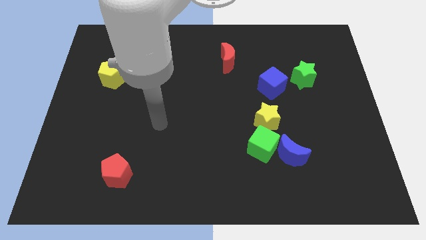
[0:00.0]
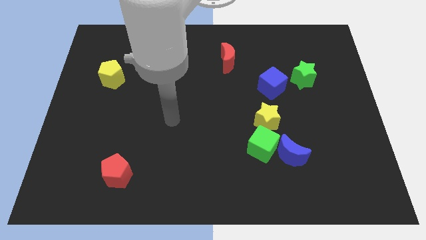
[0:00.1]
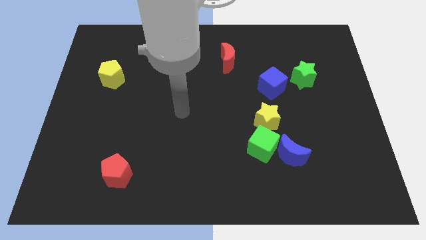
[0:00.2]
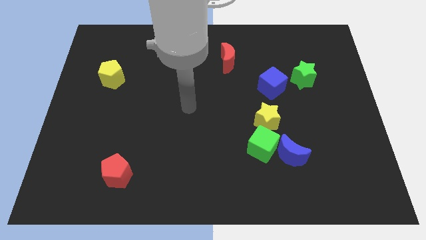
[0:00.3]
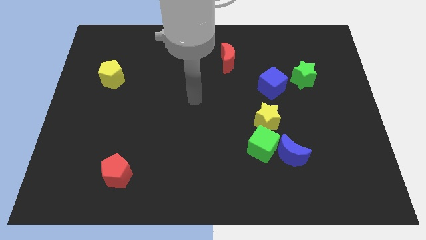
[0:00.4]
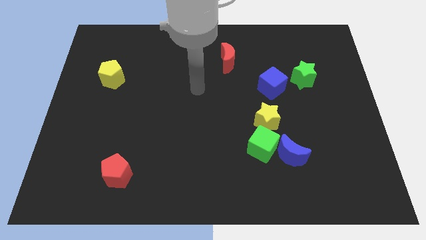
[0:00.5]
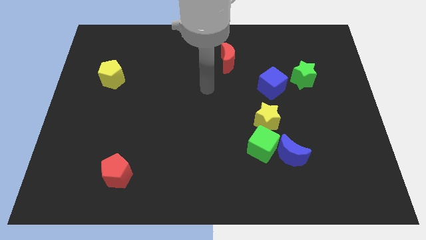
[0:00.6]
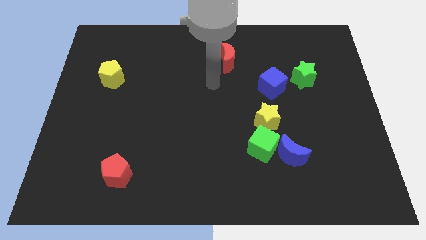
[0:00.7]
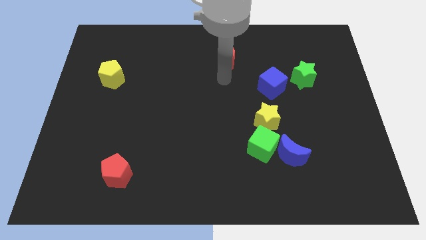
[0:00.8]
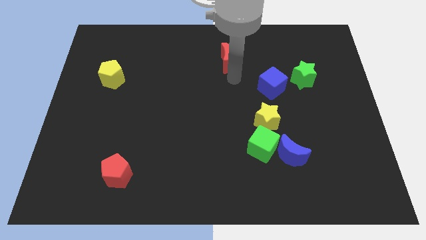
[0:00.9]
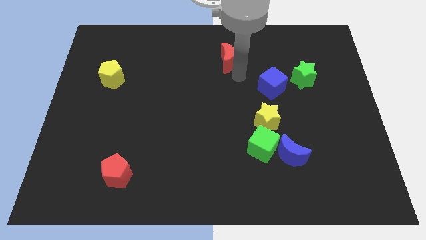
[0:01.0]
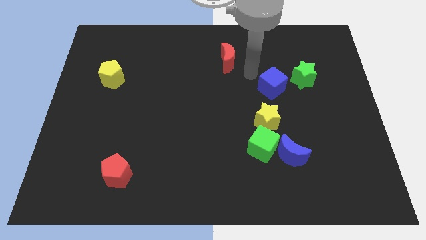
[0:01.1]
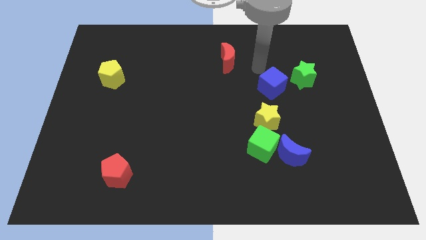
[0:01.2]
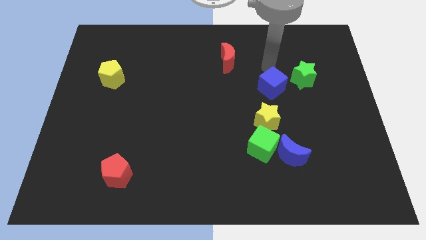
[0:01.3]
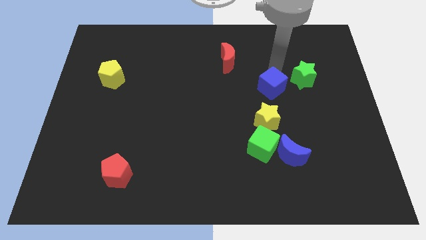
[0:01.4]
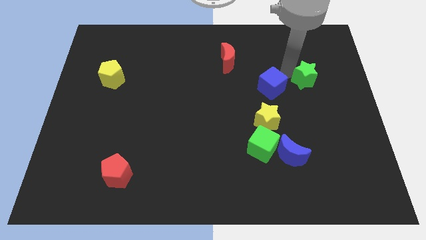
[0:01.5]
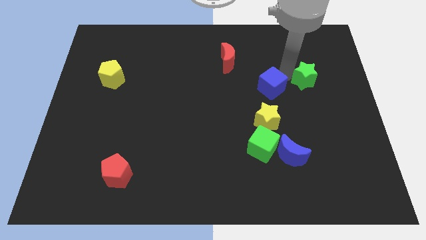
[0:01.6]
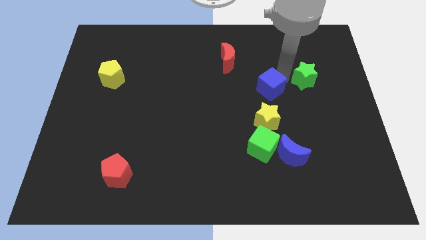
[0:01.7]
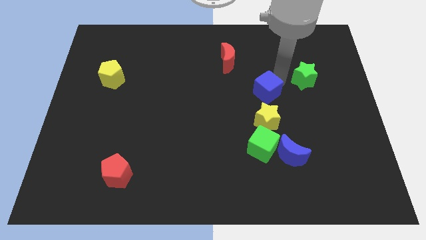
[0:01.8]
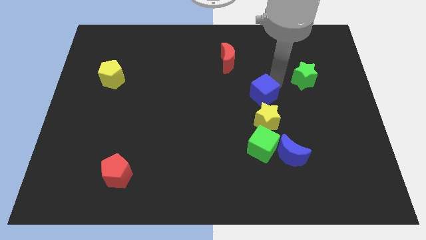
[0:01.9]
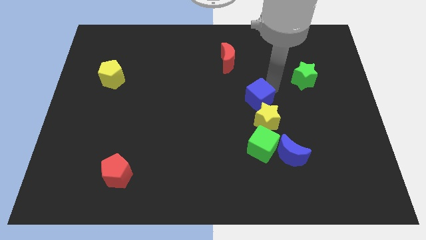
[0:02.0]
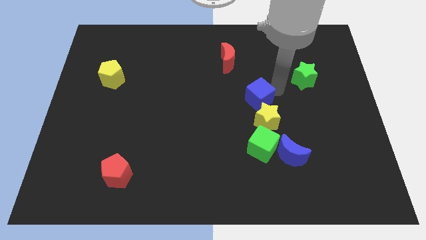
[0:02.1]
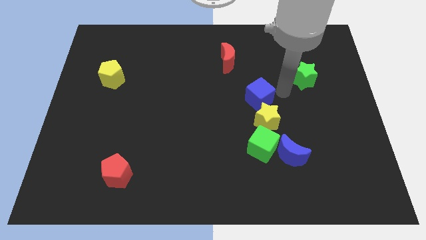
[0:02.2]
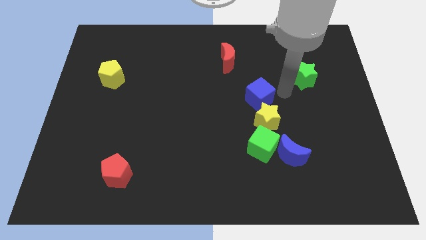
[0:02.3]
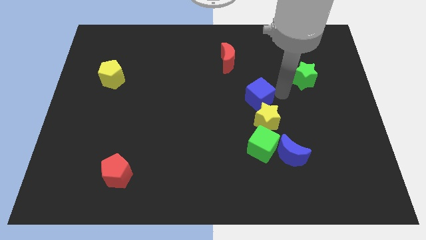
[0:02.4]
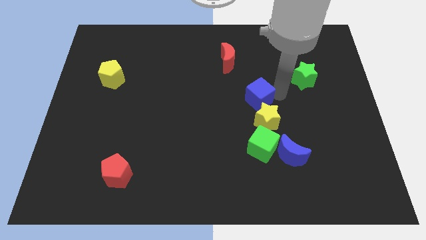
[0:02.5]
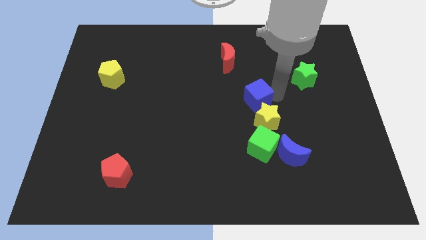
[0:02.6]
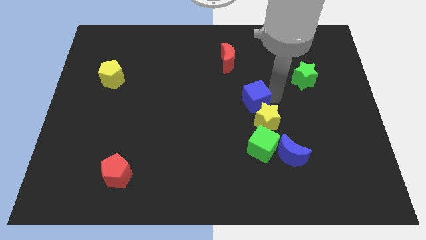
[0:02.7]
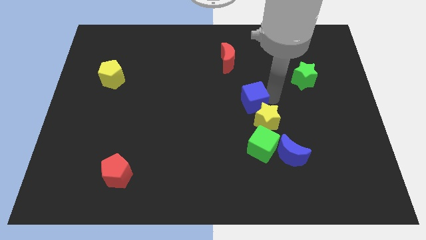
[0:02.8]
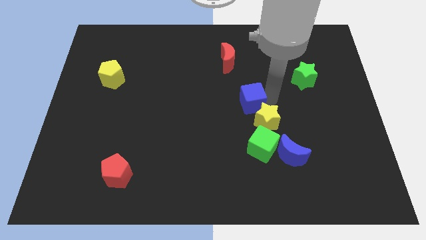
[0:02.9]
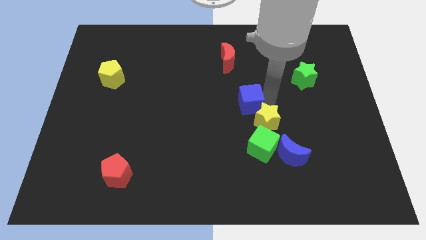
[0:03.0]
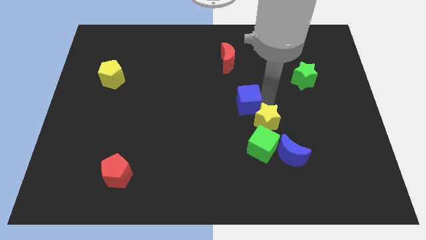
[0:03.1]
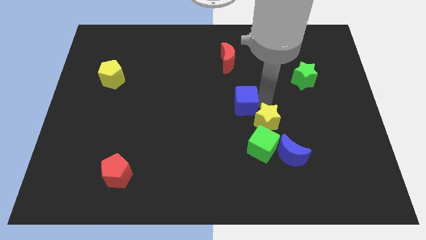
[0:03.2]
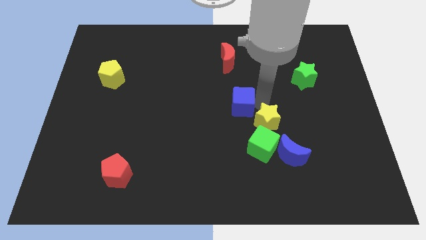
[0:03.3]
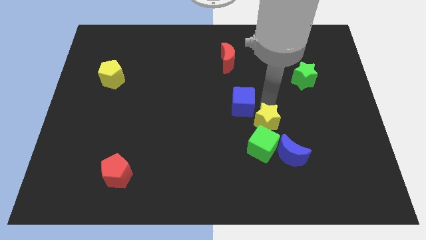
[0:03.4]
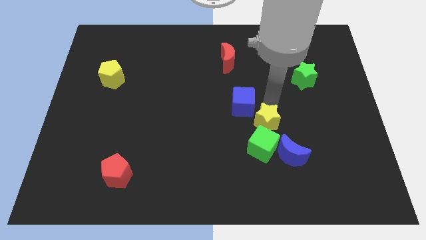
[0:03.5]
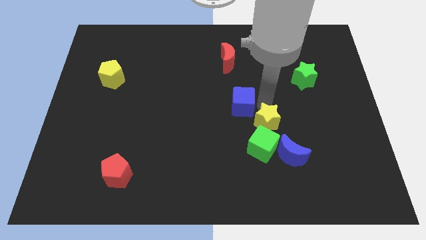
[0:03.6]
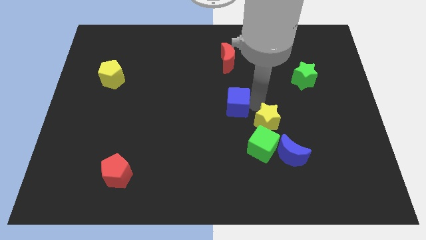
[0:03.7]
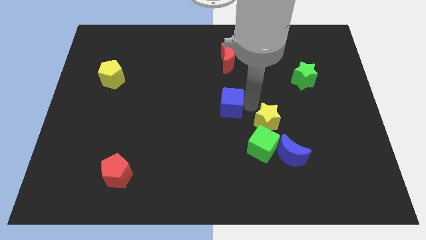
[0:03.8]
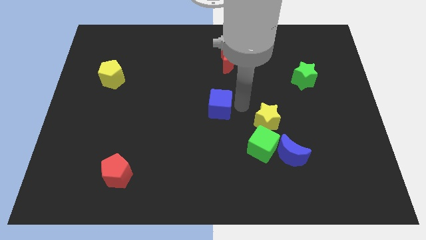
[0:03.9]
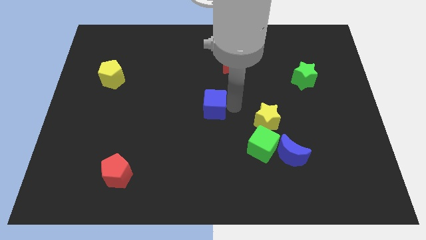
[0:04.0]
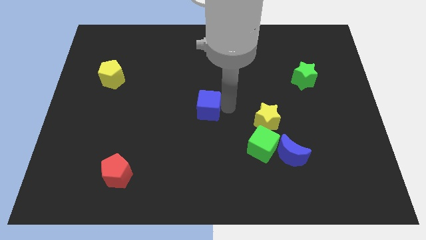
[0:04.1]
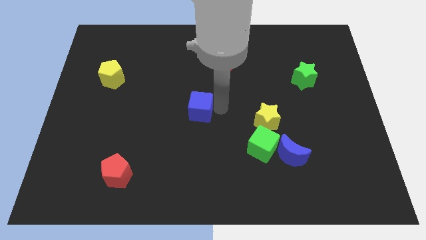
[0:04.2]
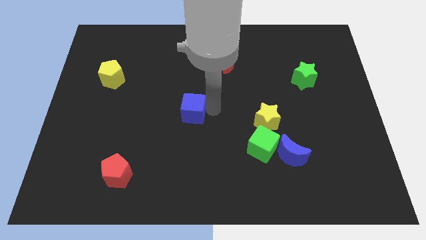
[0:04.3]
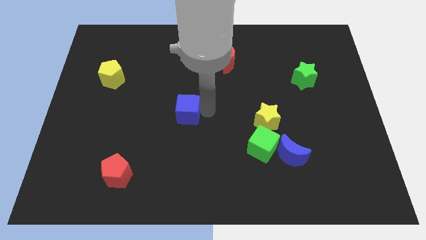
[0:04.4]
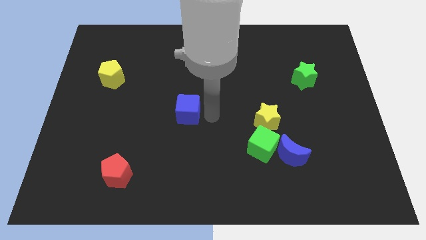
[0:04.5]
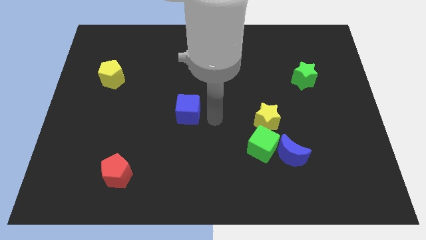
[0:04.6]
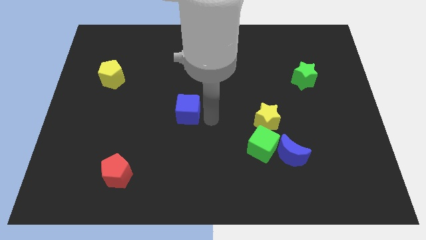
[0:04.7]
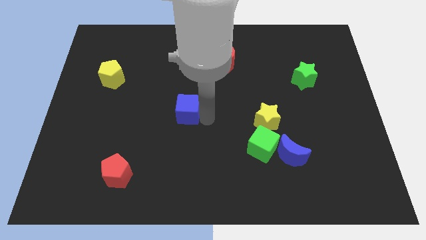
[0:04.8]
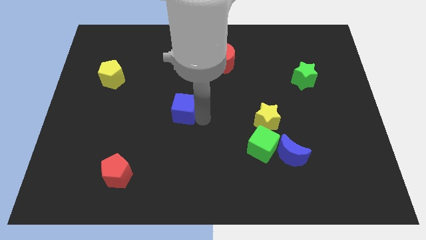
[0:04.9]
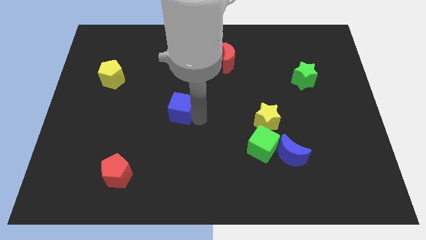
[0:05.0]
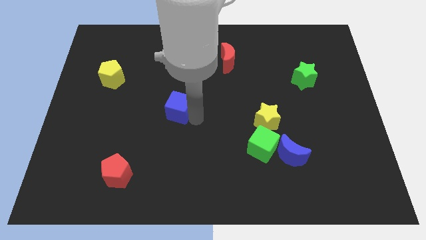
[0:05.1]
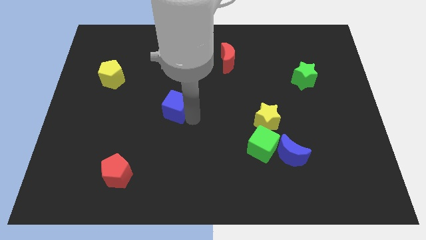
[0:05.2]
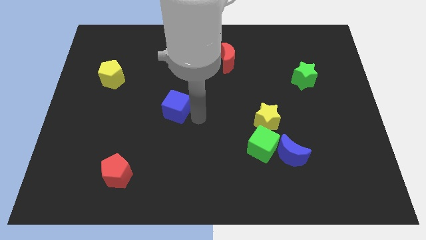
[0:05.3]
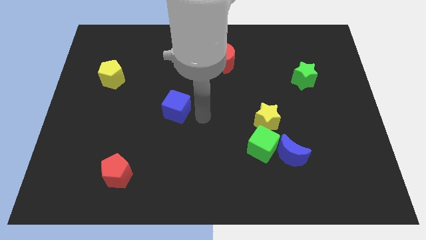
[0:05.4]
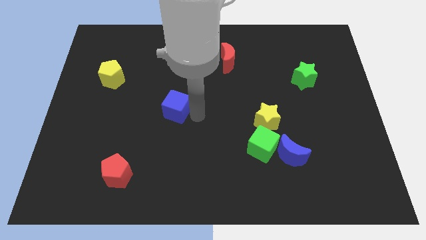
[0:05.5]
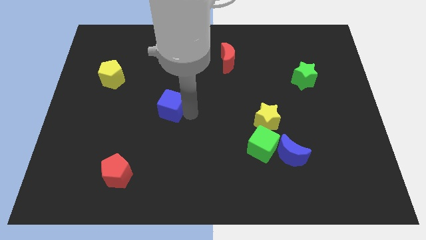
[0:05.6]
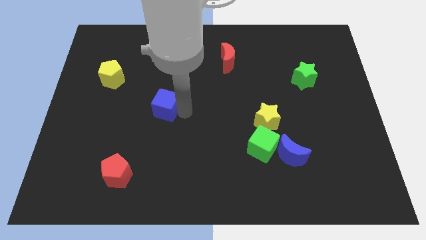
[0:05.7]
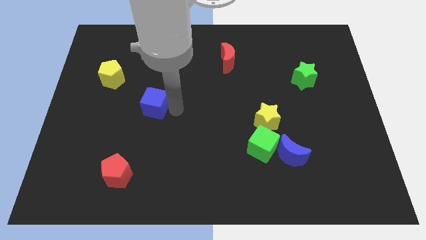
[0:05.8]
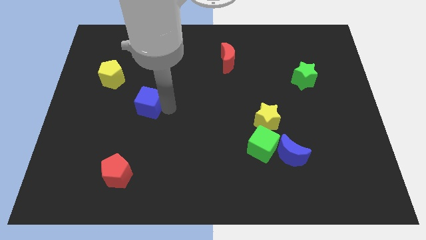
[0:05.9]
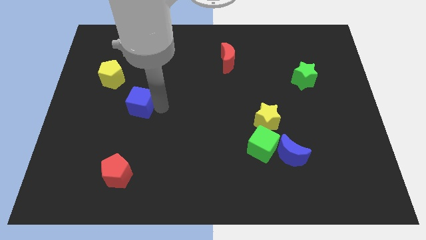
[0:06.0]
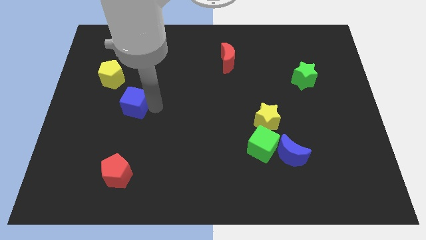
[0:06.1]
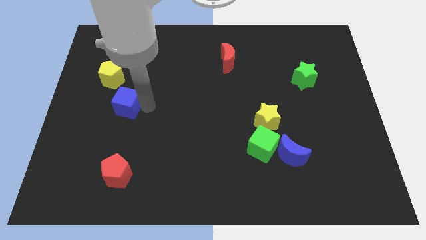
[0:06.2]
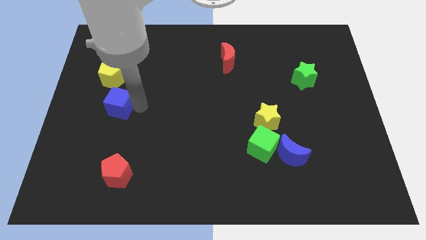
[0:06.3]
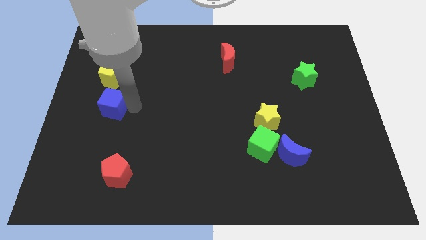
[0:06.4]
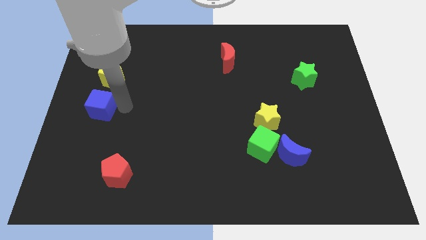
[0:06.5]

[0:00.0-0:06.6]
push the blue cube to the left side

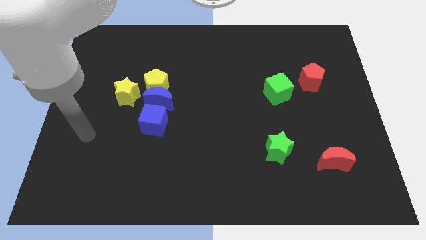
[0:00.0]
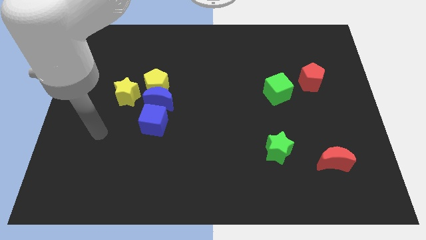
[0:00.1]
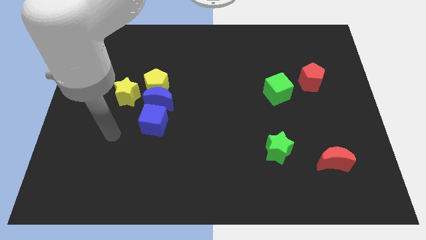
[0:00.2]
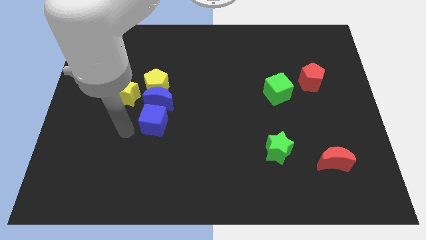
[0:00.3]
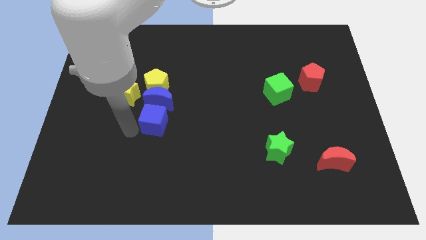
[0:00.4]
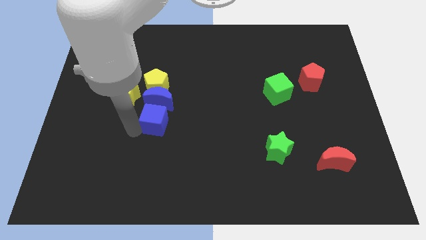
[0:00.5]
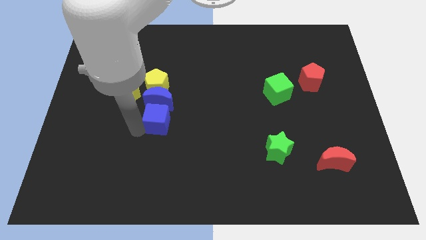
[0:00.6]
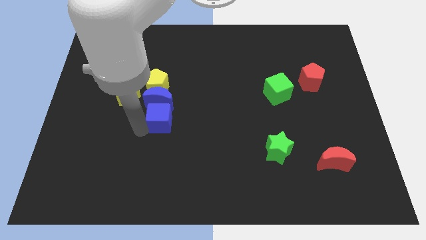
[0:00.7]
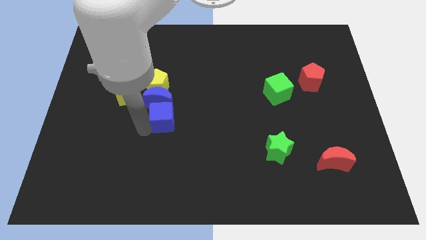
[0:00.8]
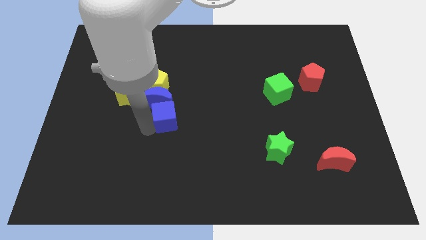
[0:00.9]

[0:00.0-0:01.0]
push the blue cube to the center
